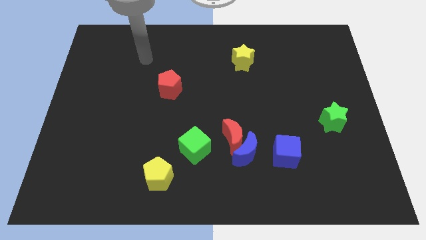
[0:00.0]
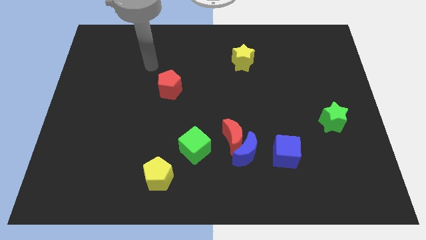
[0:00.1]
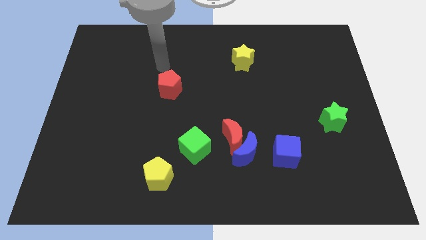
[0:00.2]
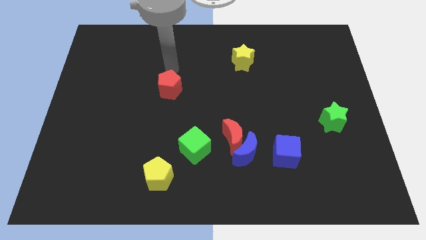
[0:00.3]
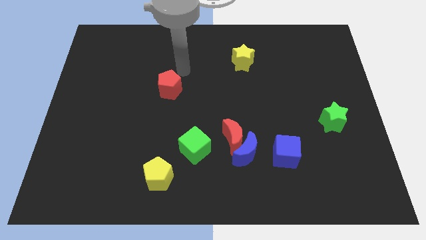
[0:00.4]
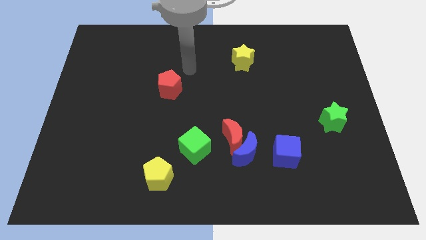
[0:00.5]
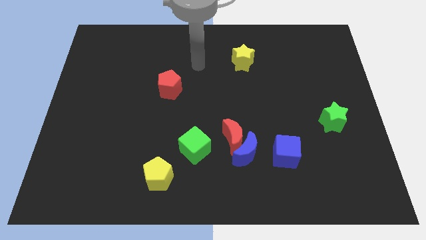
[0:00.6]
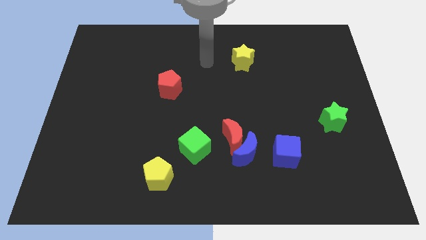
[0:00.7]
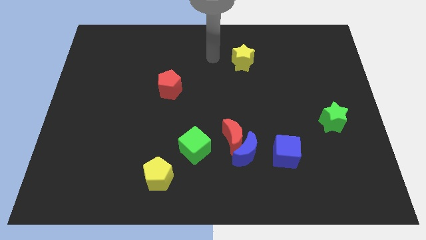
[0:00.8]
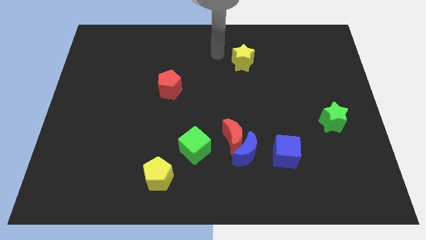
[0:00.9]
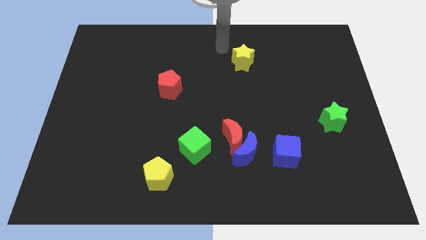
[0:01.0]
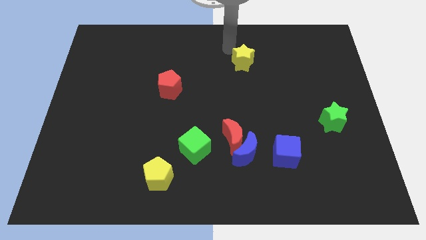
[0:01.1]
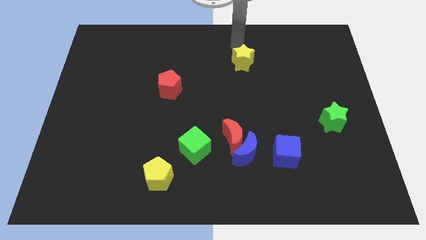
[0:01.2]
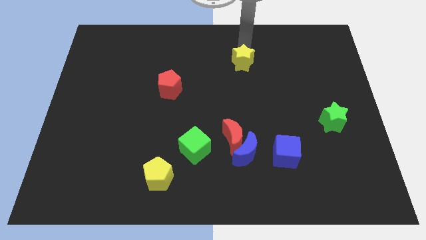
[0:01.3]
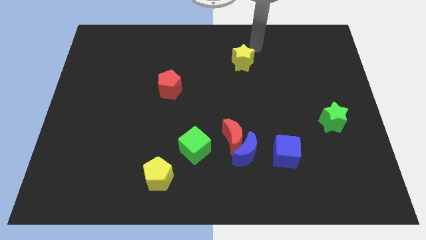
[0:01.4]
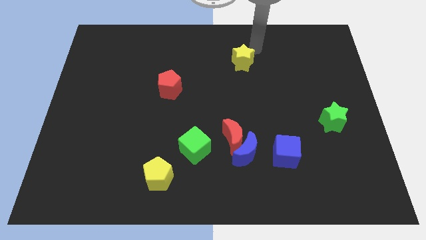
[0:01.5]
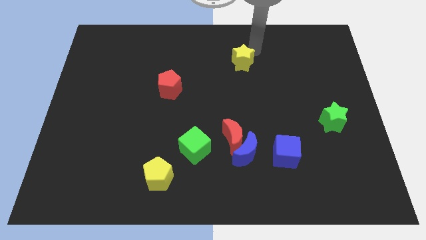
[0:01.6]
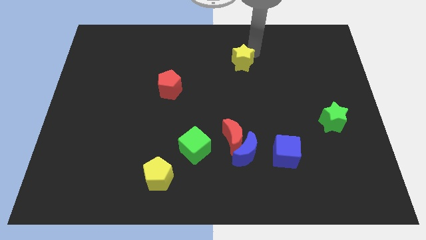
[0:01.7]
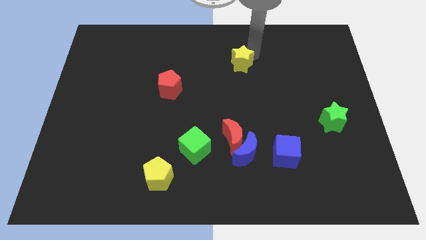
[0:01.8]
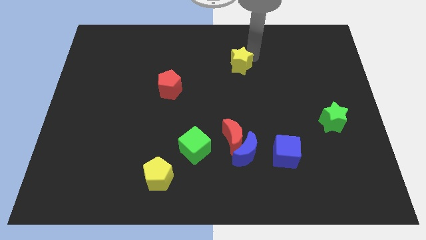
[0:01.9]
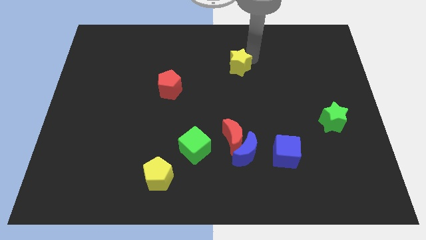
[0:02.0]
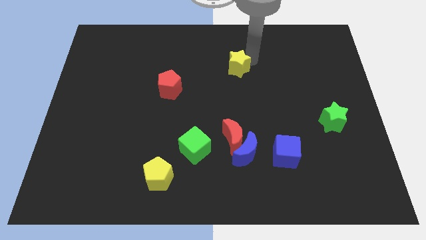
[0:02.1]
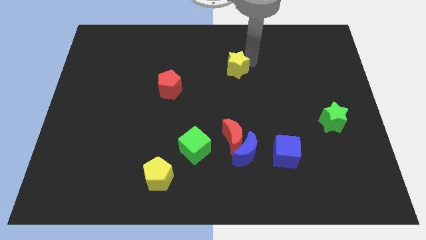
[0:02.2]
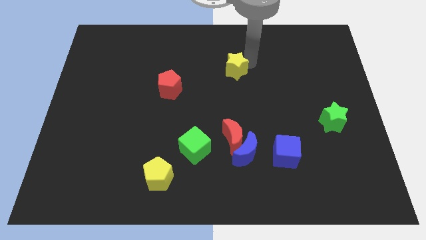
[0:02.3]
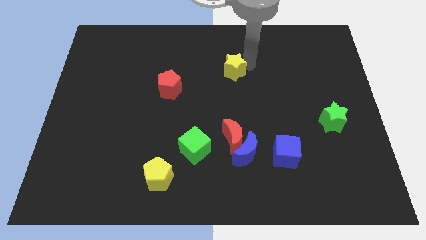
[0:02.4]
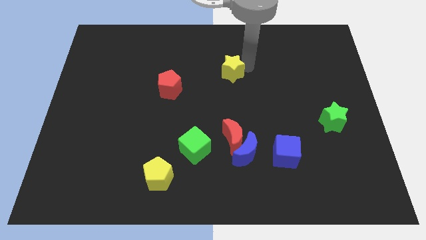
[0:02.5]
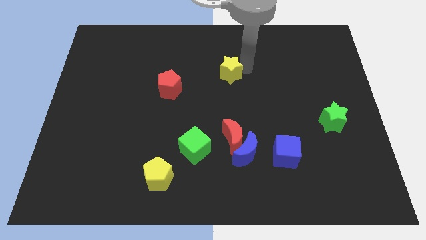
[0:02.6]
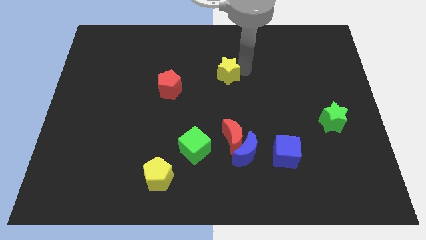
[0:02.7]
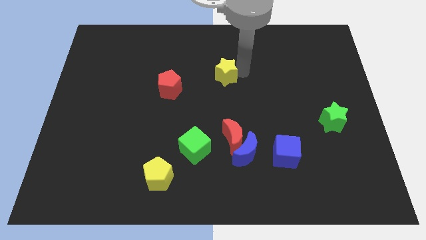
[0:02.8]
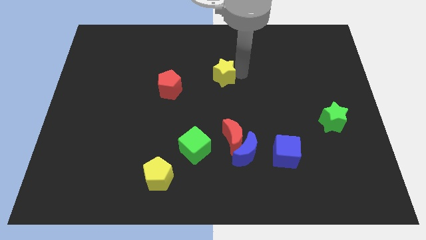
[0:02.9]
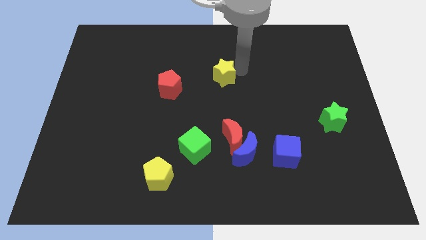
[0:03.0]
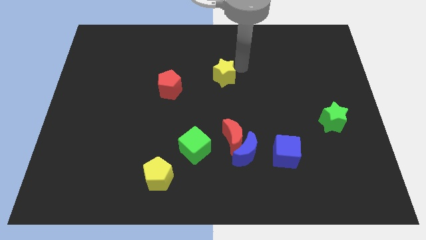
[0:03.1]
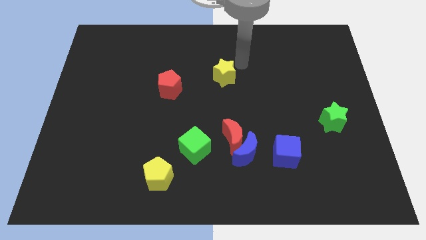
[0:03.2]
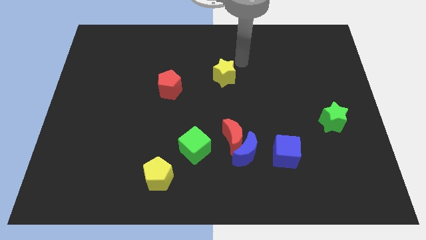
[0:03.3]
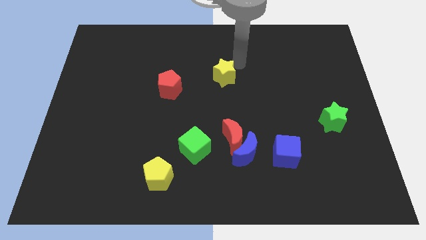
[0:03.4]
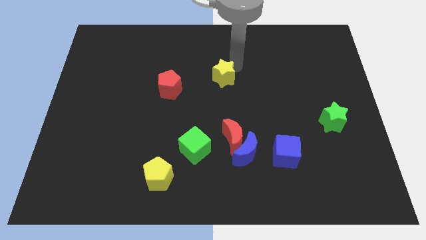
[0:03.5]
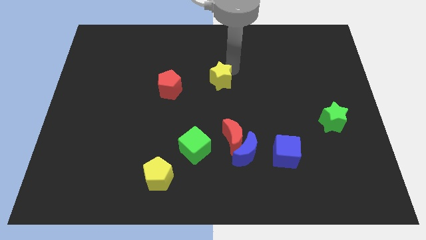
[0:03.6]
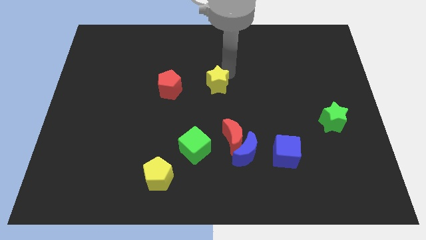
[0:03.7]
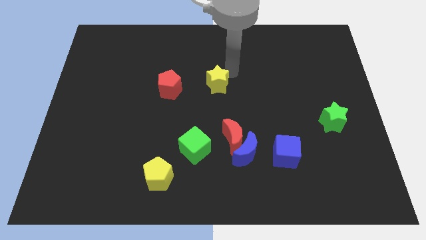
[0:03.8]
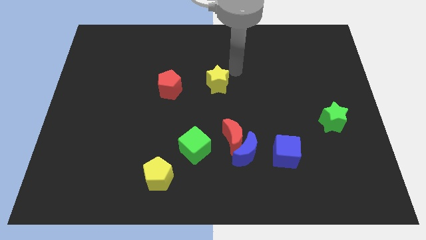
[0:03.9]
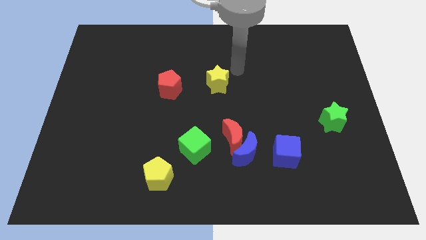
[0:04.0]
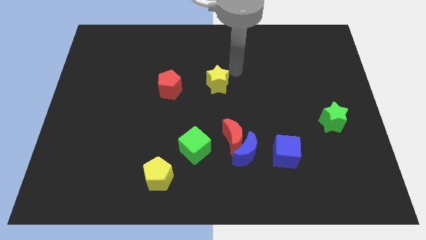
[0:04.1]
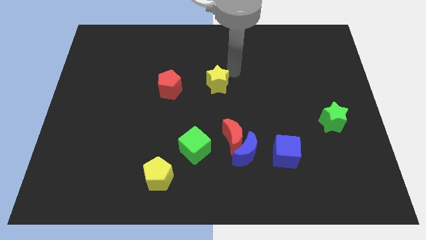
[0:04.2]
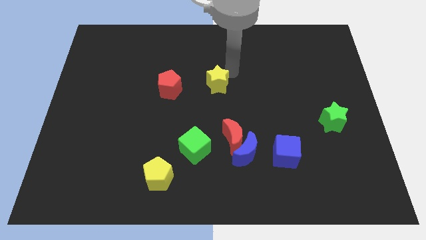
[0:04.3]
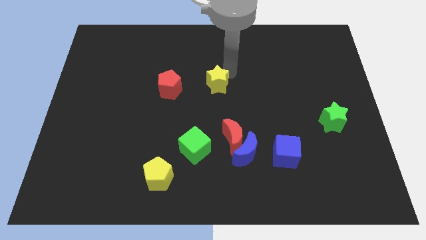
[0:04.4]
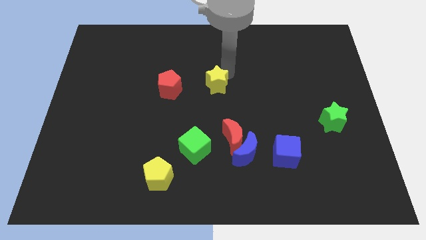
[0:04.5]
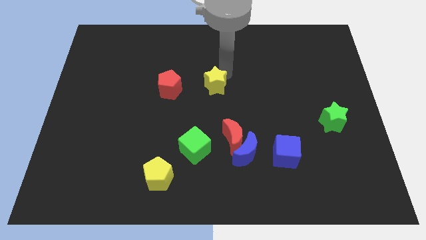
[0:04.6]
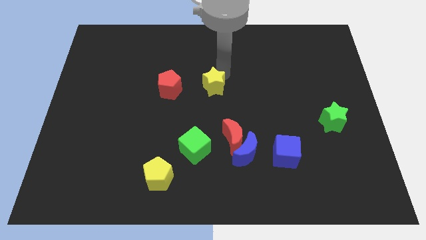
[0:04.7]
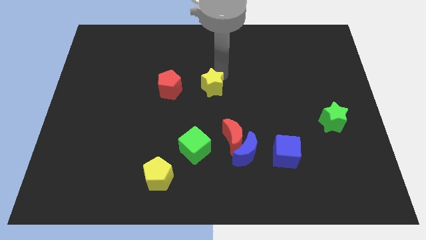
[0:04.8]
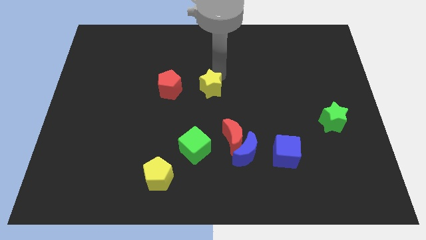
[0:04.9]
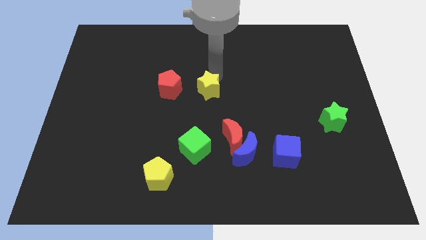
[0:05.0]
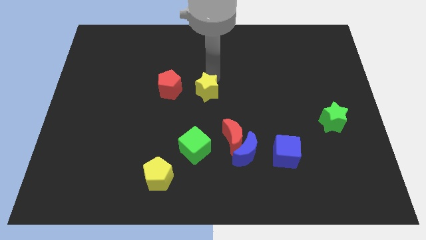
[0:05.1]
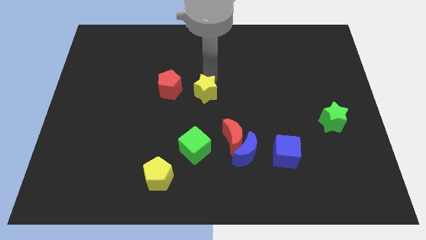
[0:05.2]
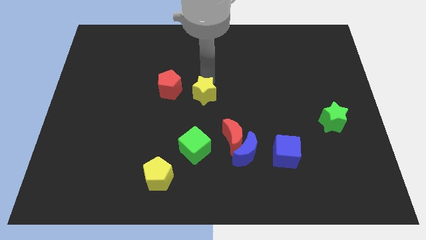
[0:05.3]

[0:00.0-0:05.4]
put the yellow star to the top of the green cube

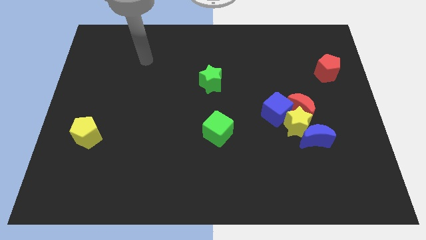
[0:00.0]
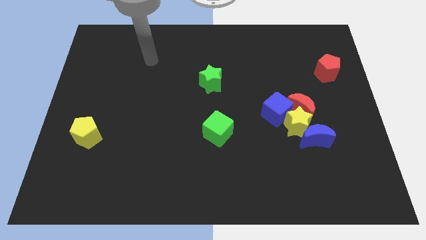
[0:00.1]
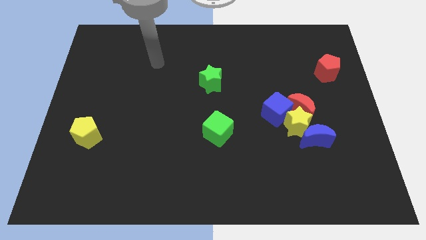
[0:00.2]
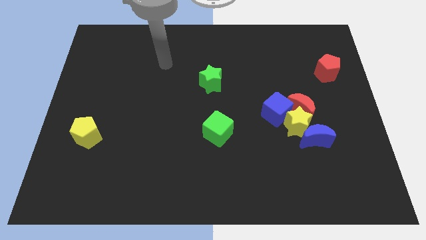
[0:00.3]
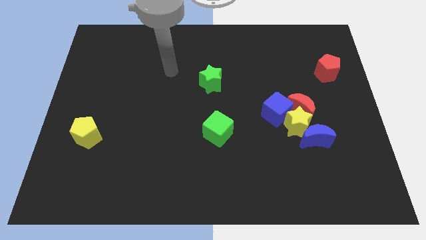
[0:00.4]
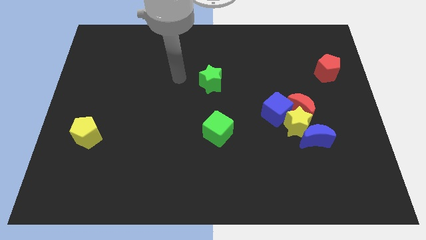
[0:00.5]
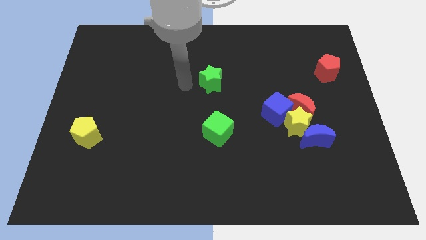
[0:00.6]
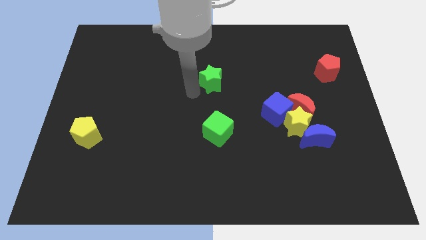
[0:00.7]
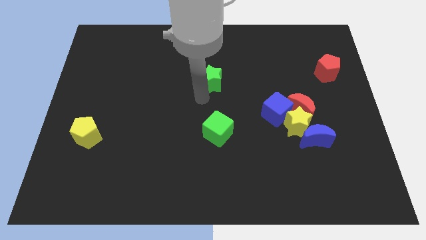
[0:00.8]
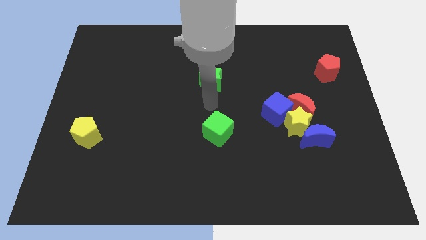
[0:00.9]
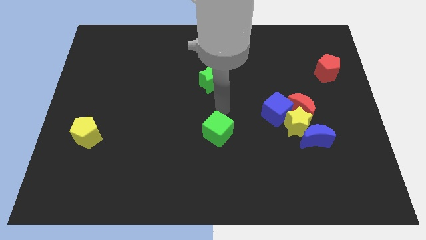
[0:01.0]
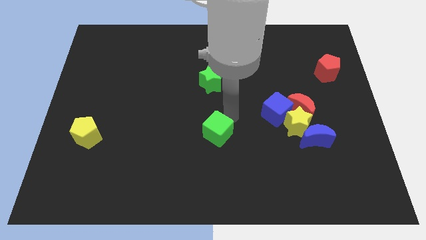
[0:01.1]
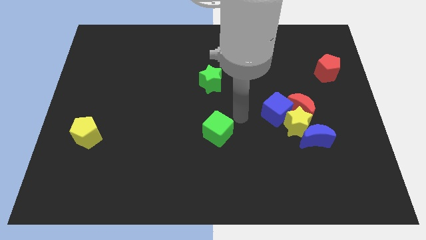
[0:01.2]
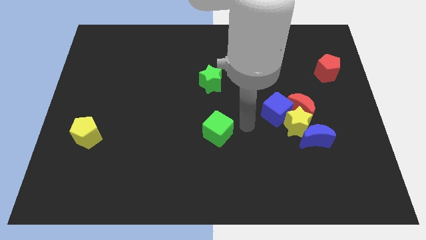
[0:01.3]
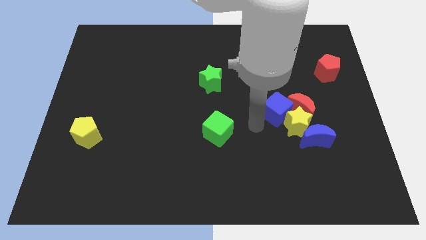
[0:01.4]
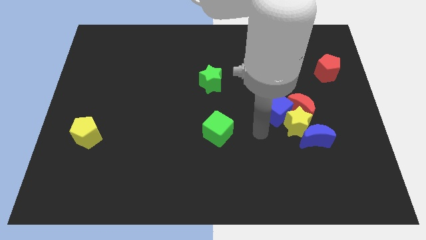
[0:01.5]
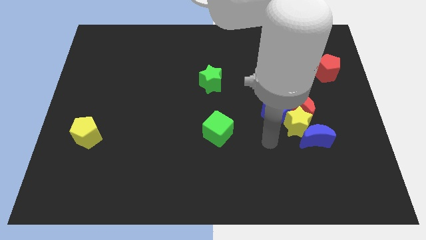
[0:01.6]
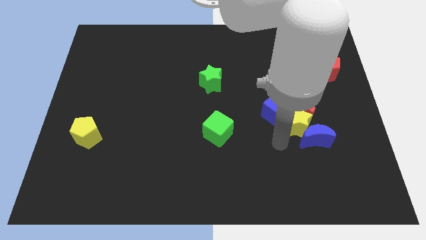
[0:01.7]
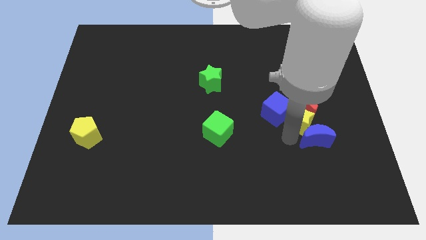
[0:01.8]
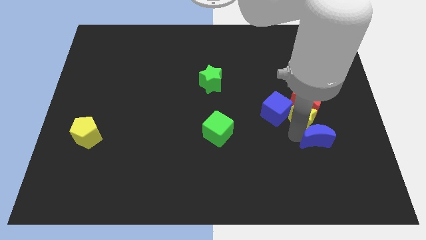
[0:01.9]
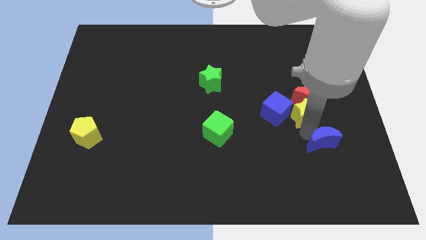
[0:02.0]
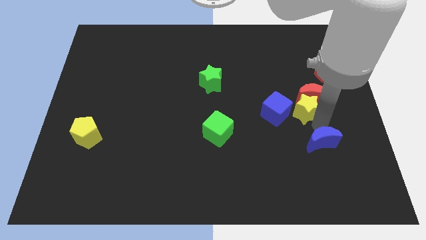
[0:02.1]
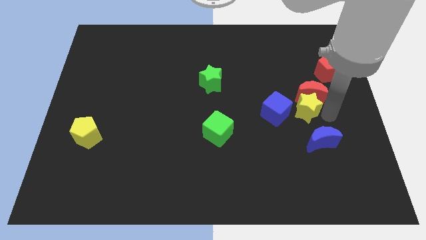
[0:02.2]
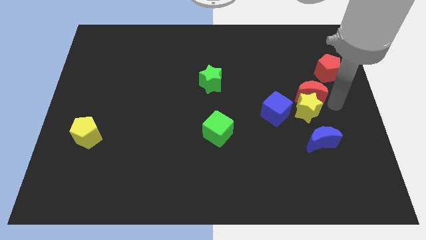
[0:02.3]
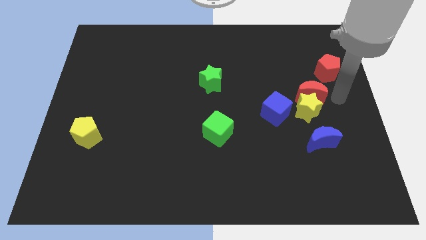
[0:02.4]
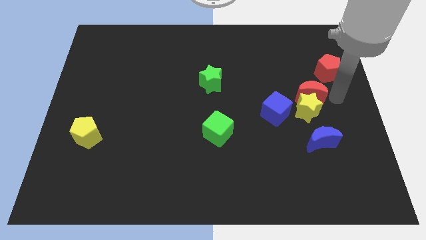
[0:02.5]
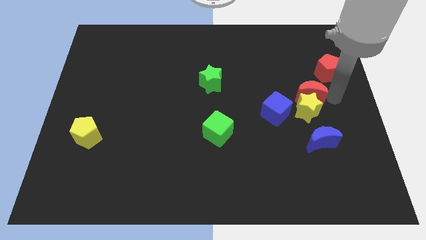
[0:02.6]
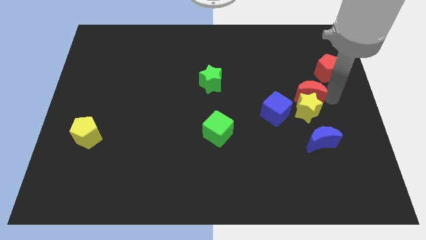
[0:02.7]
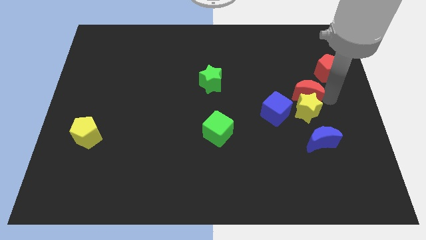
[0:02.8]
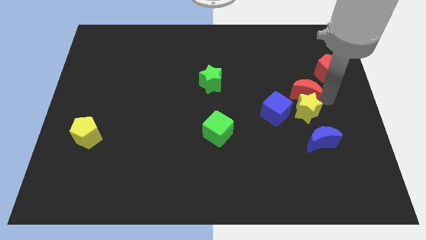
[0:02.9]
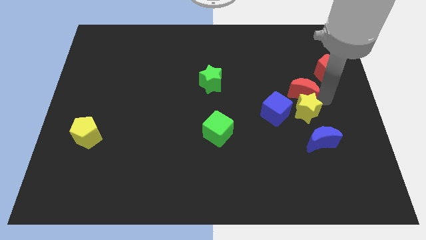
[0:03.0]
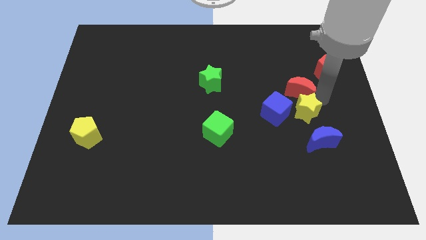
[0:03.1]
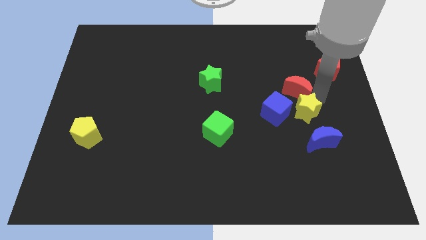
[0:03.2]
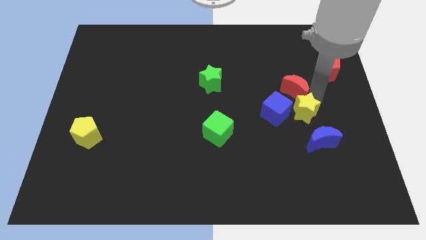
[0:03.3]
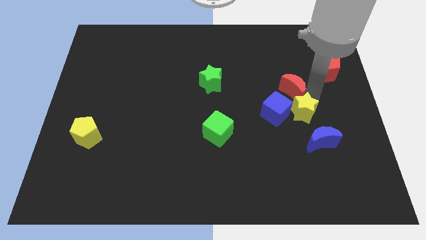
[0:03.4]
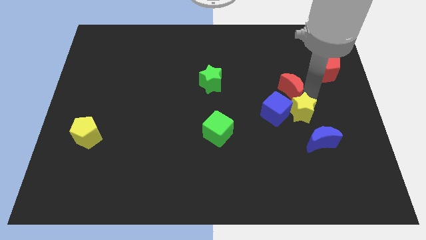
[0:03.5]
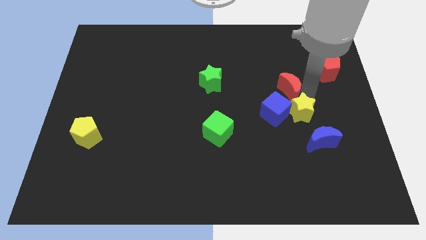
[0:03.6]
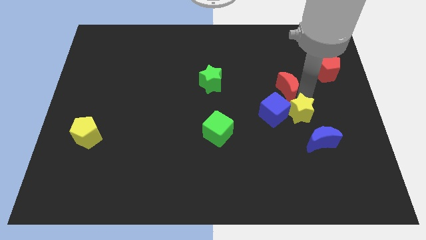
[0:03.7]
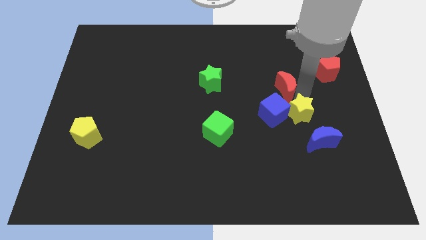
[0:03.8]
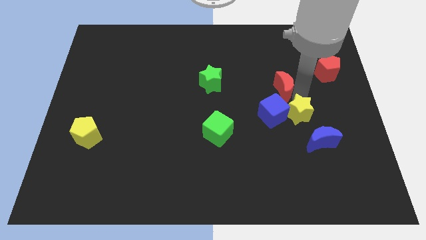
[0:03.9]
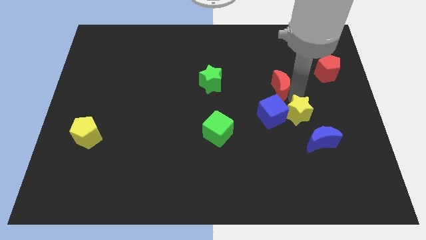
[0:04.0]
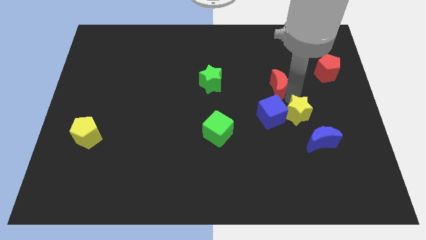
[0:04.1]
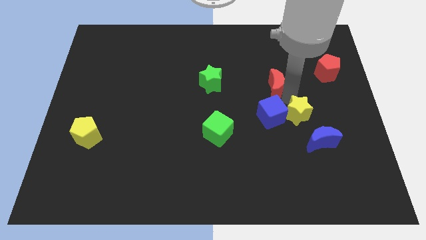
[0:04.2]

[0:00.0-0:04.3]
move the red moon to the right side of the green star
